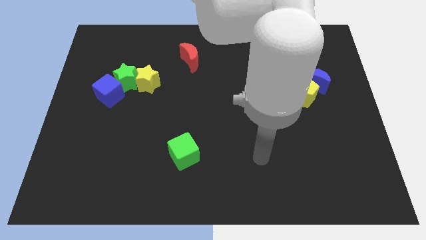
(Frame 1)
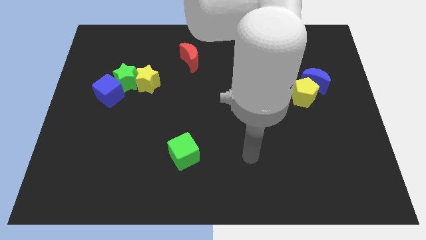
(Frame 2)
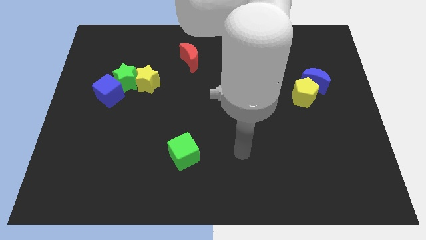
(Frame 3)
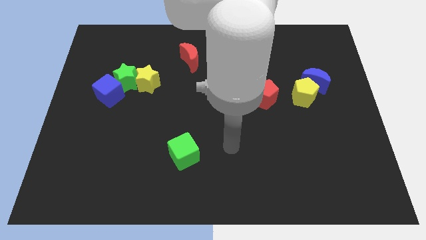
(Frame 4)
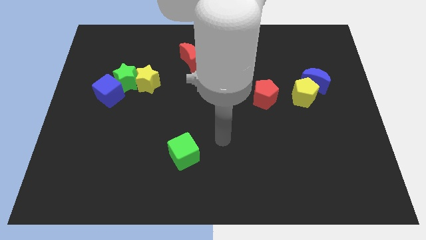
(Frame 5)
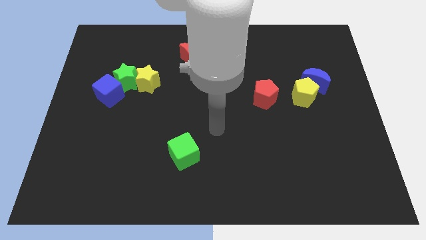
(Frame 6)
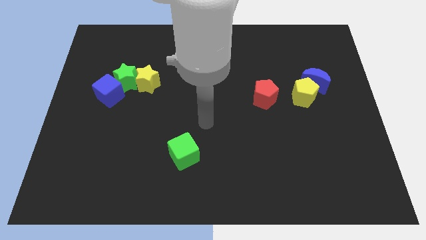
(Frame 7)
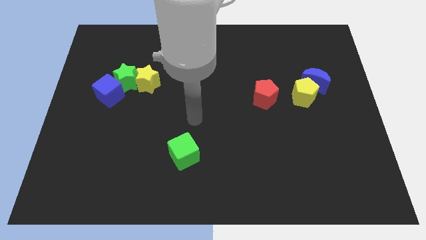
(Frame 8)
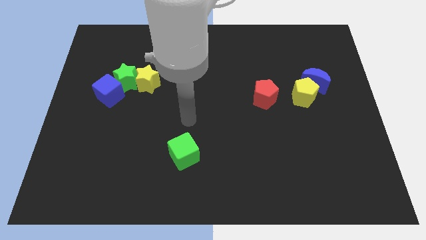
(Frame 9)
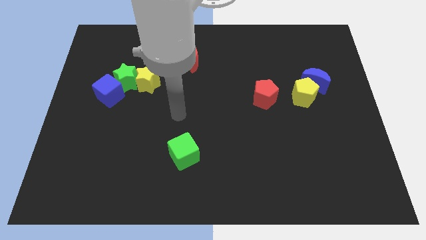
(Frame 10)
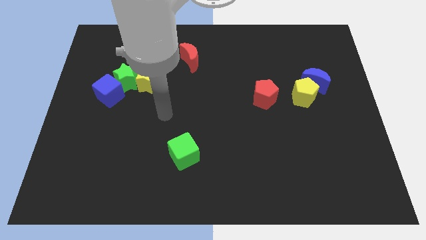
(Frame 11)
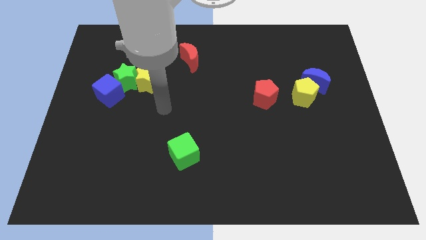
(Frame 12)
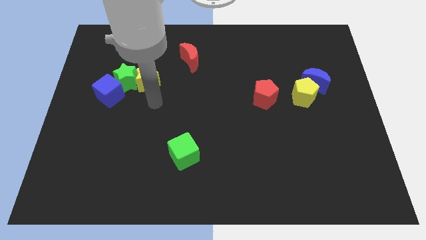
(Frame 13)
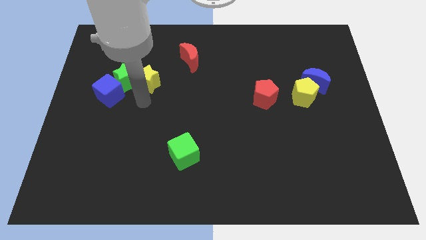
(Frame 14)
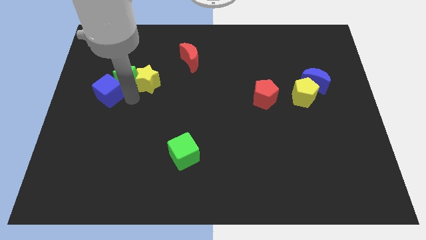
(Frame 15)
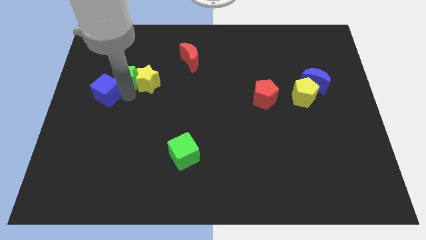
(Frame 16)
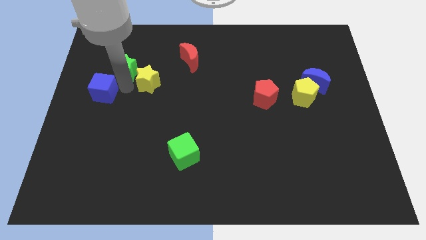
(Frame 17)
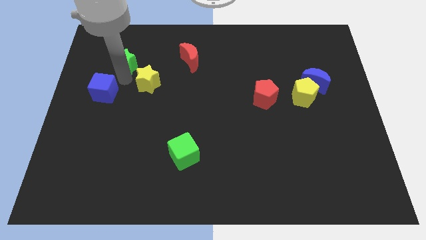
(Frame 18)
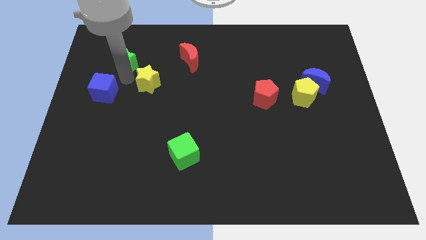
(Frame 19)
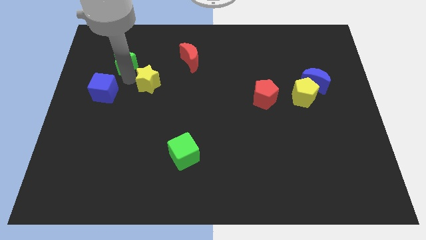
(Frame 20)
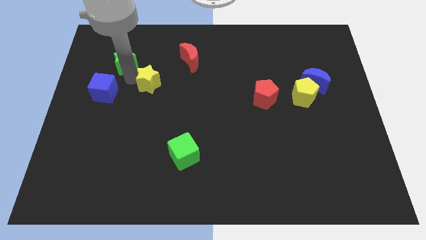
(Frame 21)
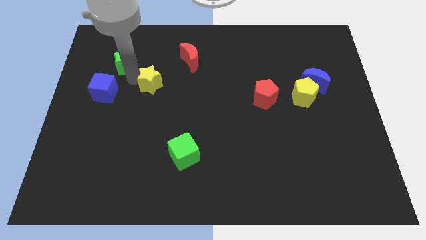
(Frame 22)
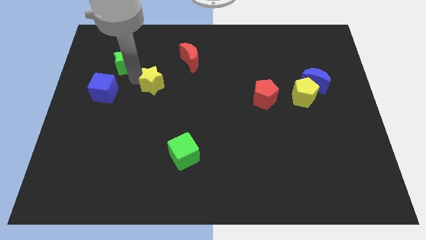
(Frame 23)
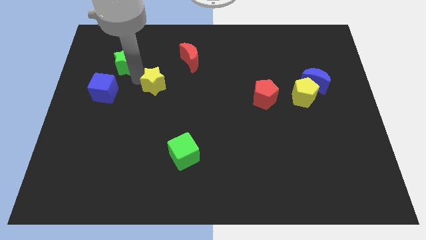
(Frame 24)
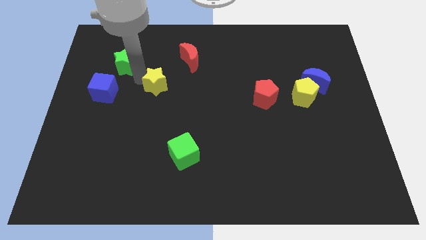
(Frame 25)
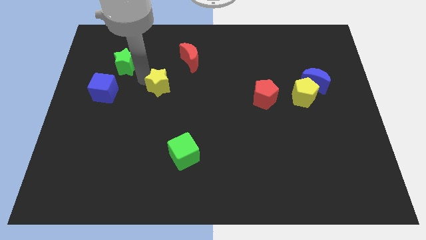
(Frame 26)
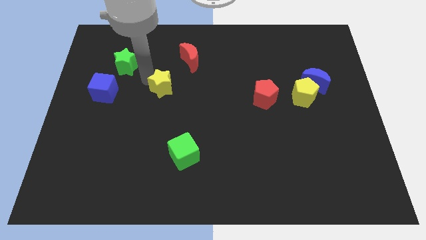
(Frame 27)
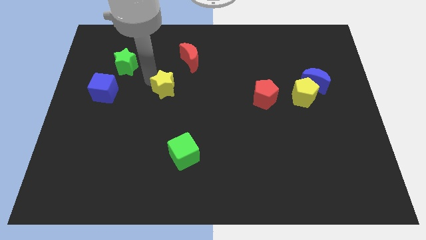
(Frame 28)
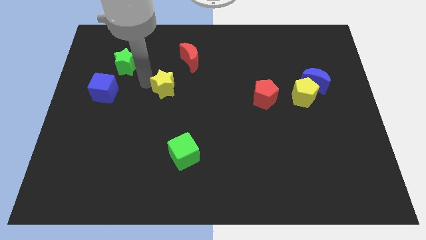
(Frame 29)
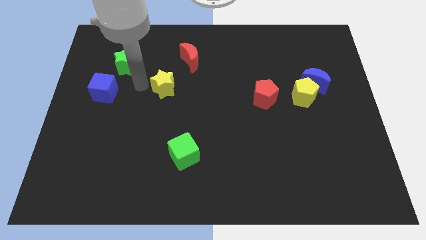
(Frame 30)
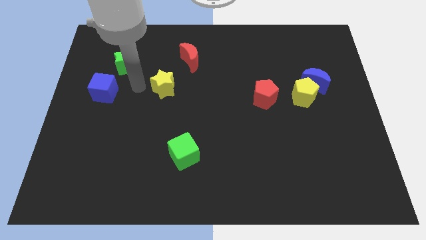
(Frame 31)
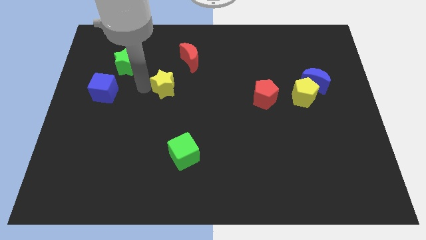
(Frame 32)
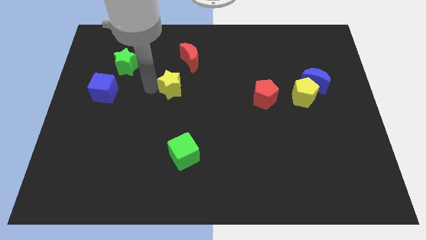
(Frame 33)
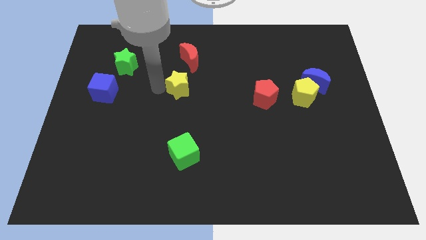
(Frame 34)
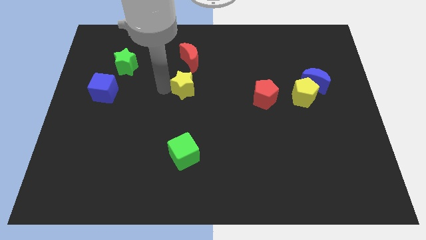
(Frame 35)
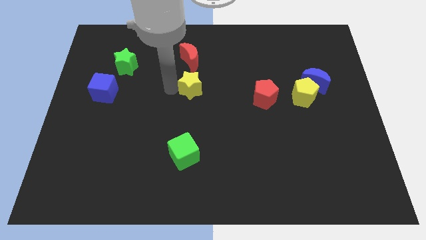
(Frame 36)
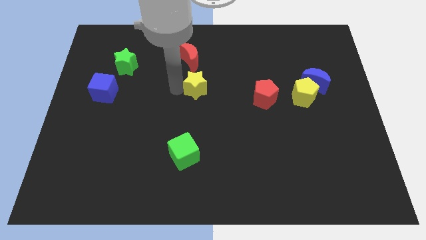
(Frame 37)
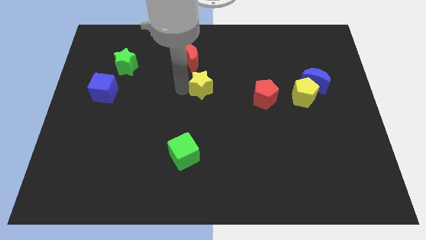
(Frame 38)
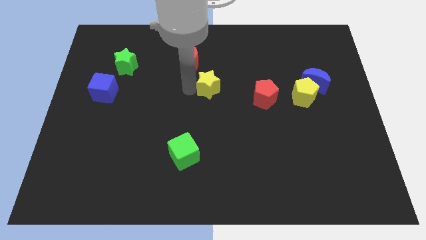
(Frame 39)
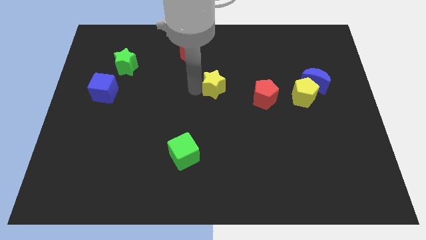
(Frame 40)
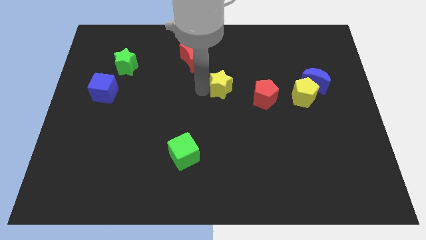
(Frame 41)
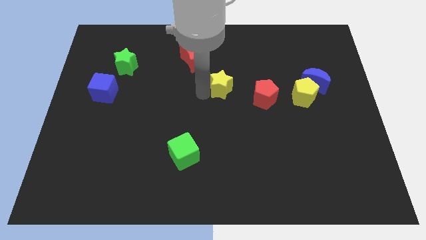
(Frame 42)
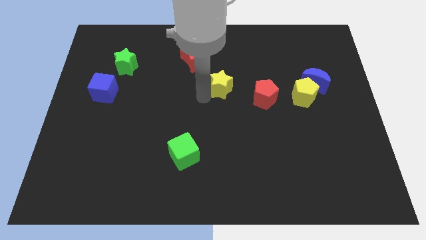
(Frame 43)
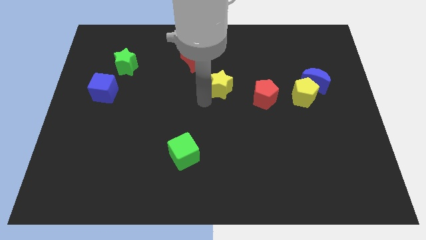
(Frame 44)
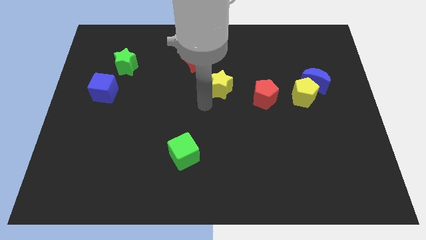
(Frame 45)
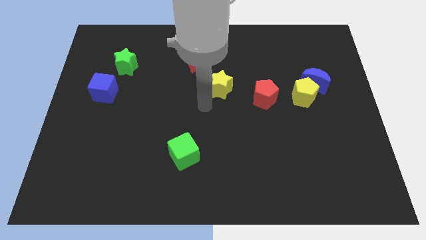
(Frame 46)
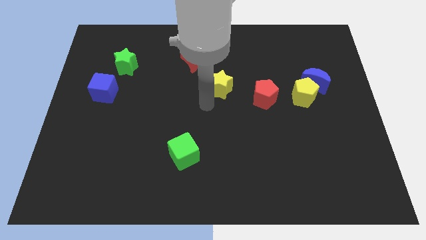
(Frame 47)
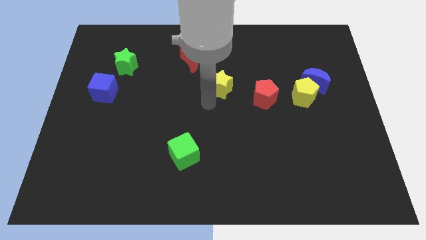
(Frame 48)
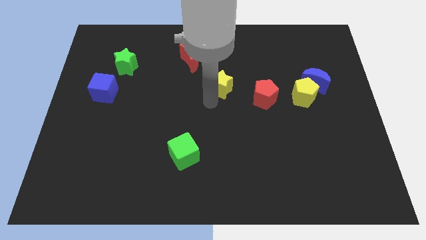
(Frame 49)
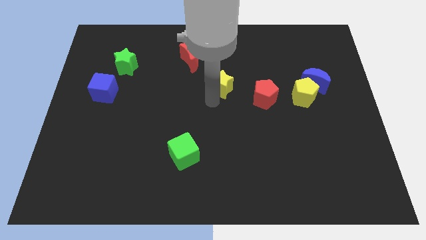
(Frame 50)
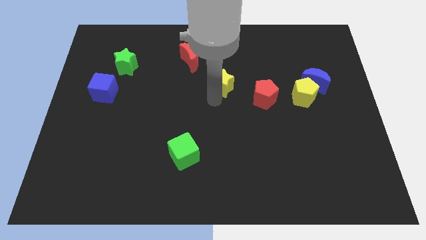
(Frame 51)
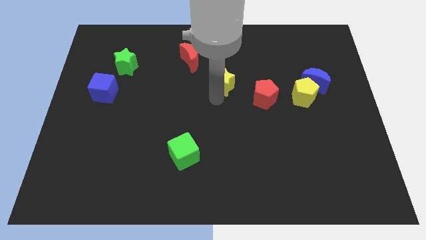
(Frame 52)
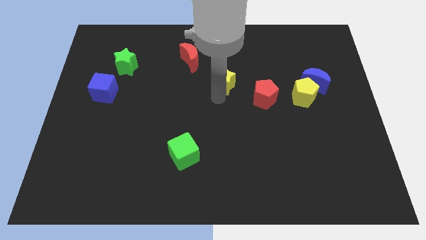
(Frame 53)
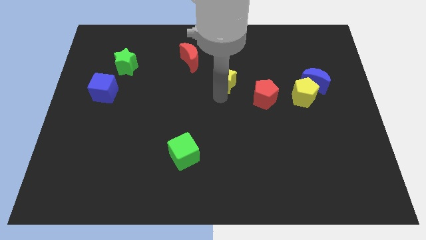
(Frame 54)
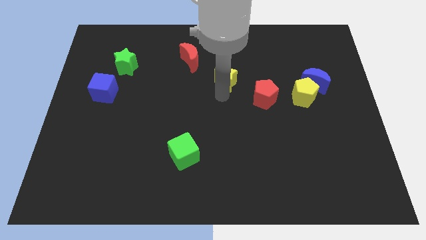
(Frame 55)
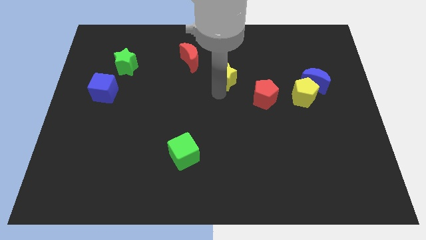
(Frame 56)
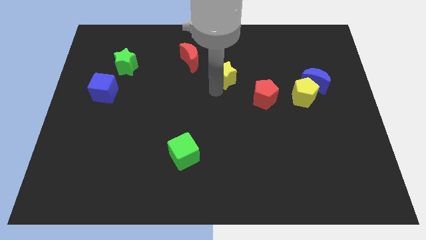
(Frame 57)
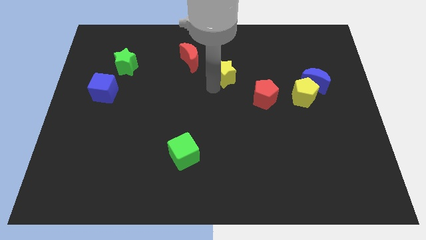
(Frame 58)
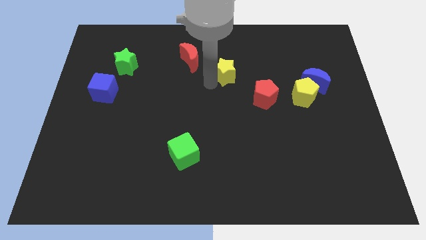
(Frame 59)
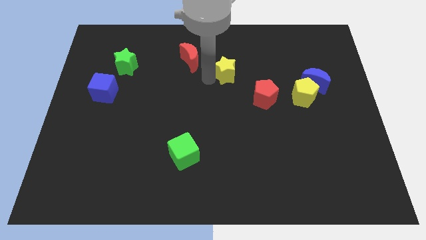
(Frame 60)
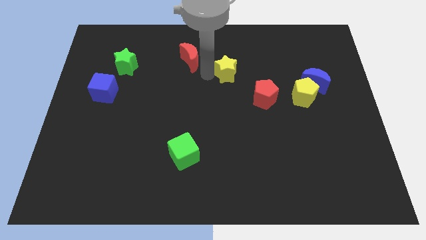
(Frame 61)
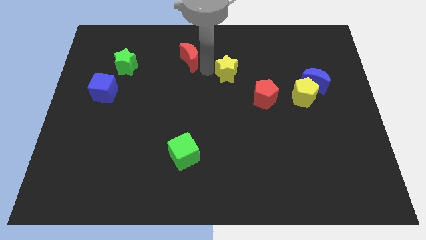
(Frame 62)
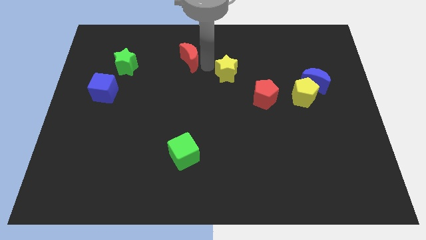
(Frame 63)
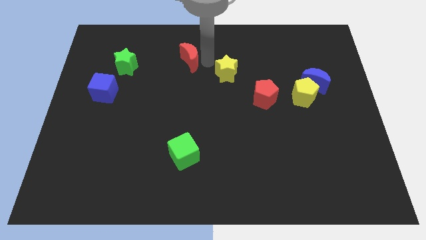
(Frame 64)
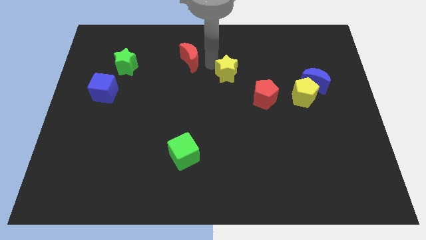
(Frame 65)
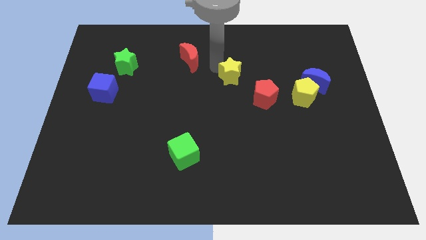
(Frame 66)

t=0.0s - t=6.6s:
push the yellow star to the right

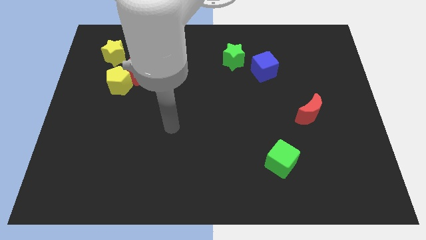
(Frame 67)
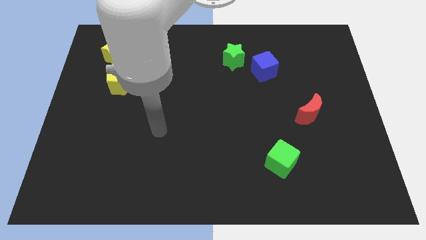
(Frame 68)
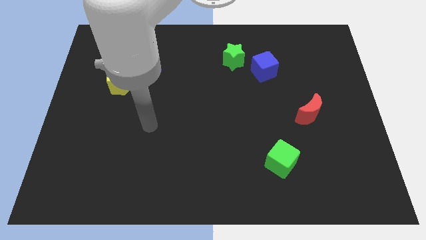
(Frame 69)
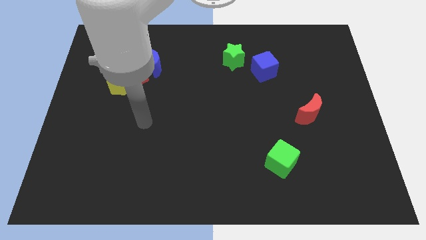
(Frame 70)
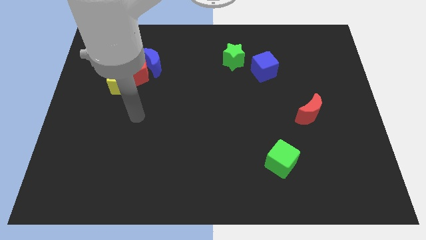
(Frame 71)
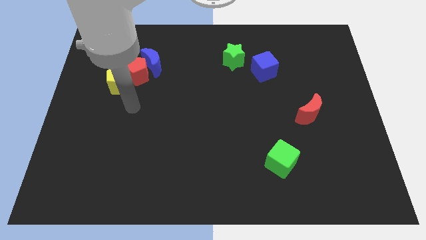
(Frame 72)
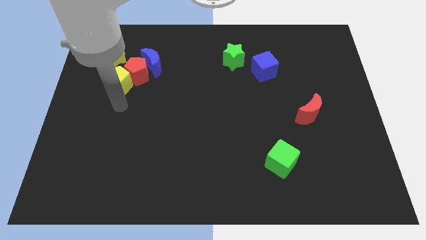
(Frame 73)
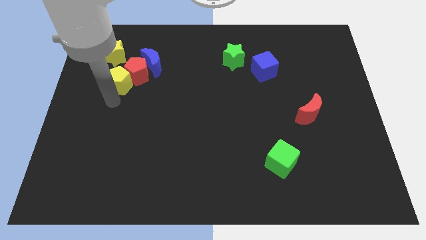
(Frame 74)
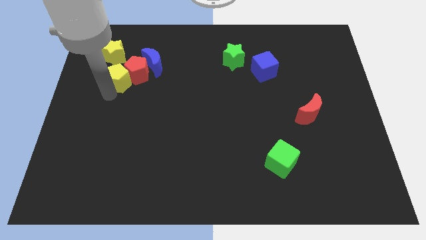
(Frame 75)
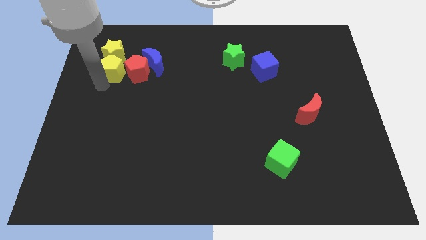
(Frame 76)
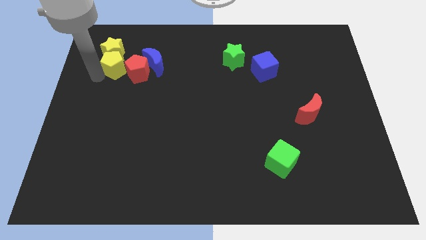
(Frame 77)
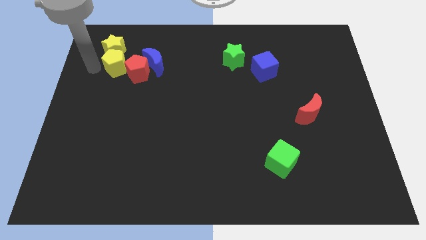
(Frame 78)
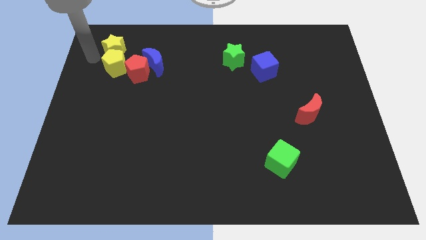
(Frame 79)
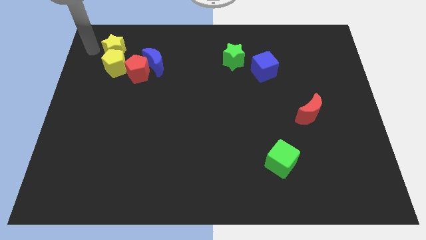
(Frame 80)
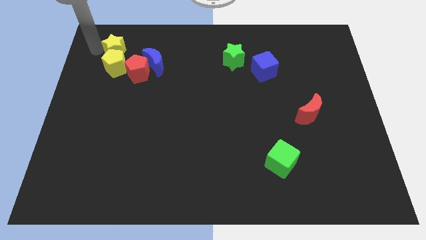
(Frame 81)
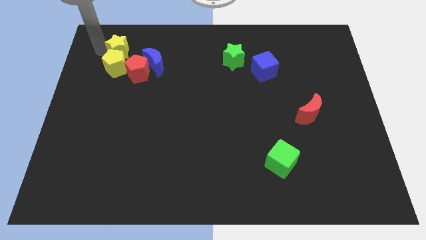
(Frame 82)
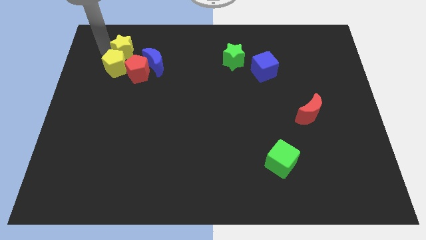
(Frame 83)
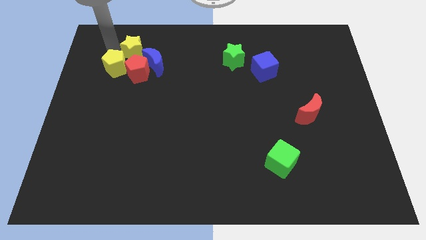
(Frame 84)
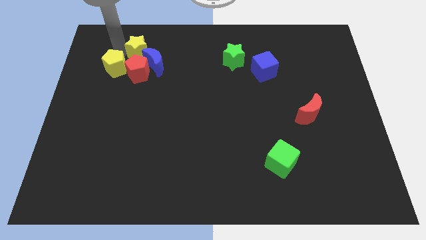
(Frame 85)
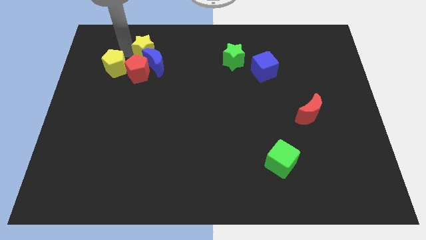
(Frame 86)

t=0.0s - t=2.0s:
push the yellow star to the right a little
